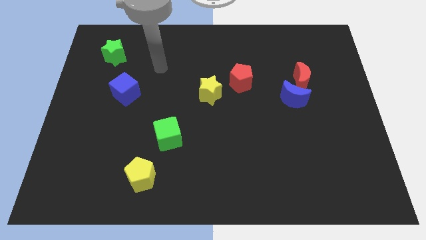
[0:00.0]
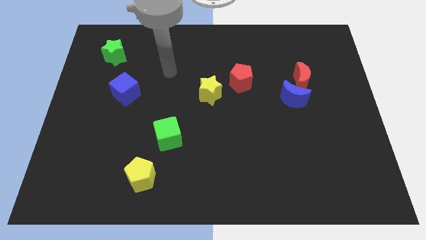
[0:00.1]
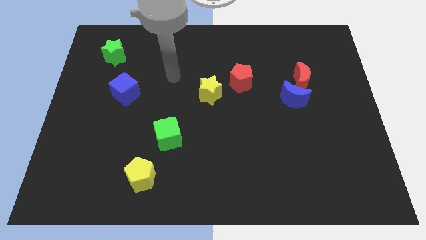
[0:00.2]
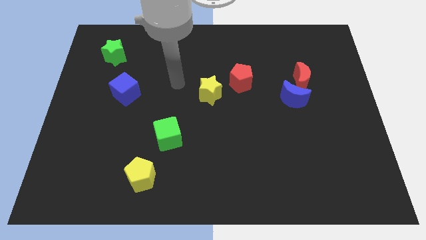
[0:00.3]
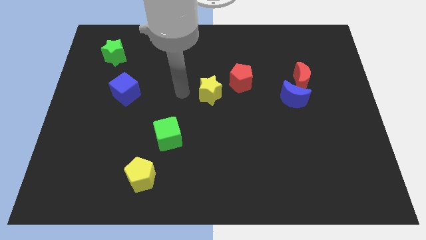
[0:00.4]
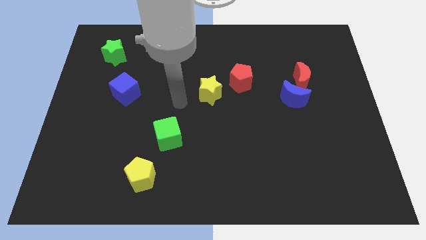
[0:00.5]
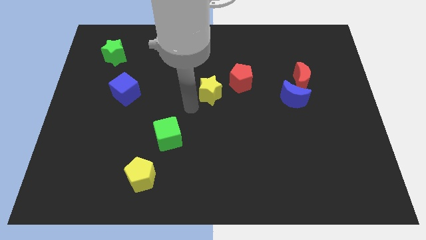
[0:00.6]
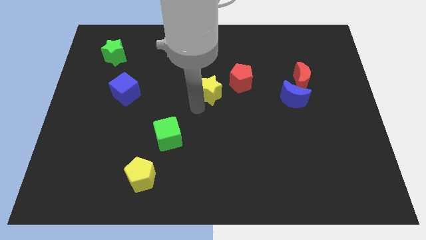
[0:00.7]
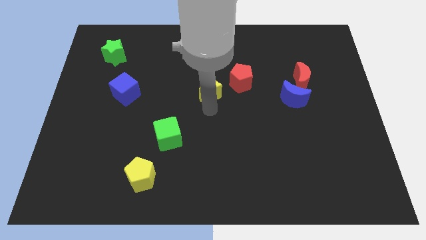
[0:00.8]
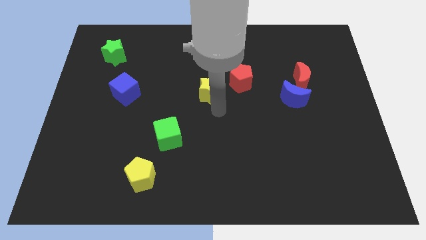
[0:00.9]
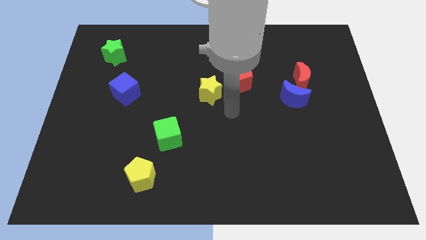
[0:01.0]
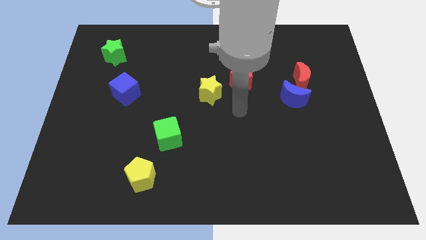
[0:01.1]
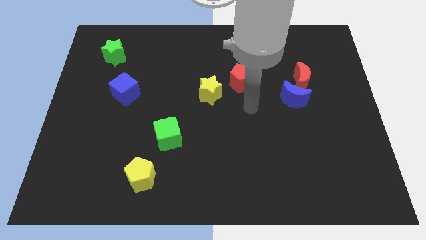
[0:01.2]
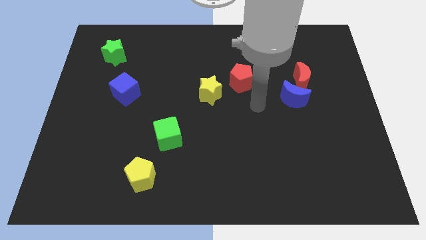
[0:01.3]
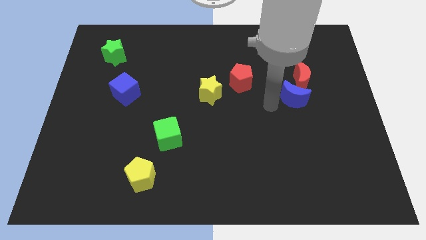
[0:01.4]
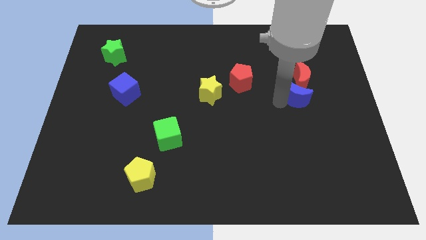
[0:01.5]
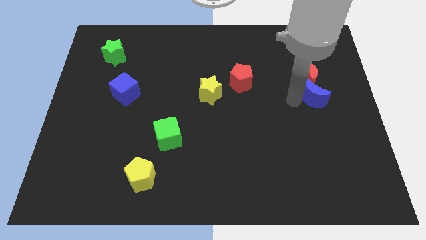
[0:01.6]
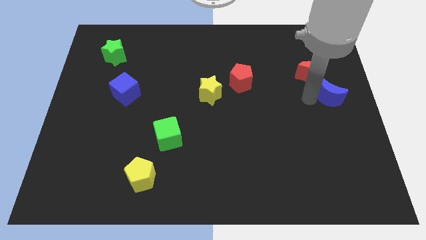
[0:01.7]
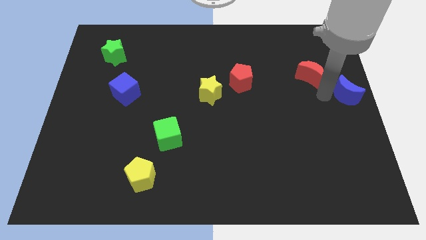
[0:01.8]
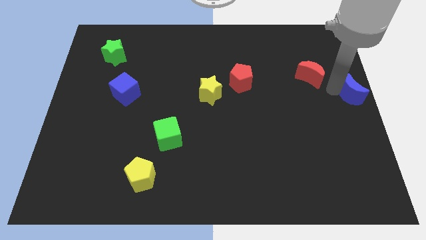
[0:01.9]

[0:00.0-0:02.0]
pull the red moon apart from the blue moon

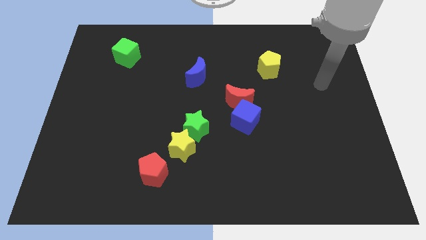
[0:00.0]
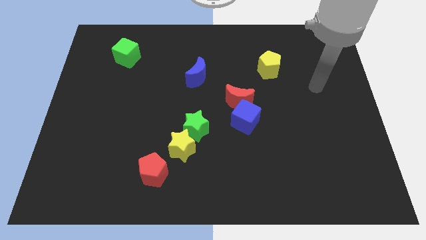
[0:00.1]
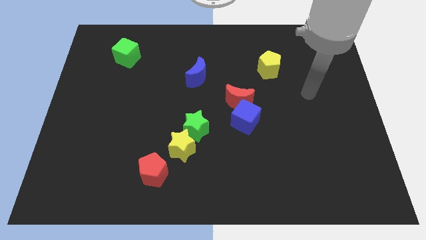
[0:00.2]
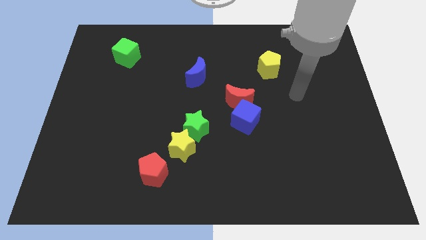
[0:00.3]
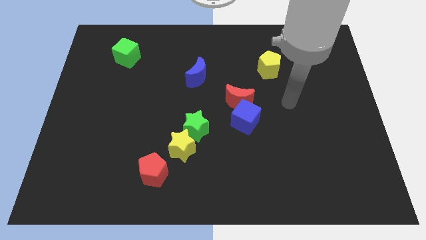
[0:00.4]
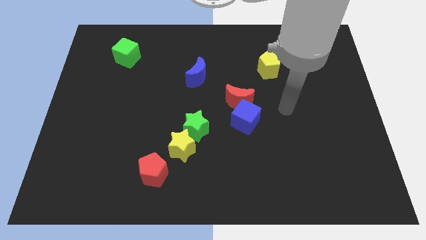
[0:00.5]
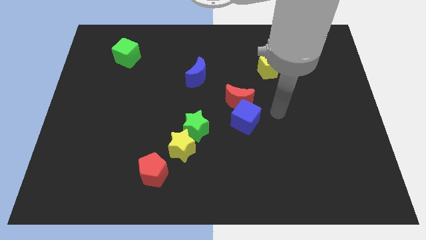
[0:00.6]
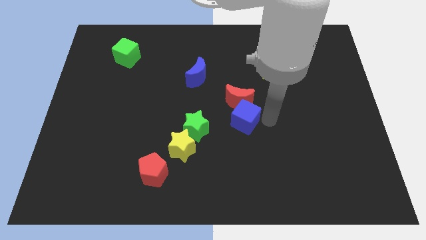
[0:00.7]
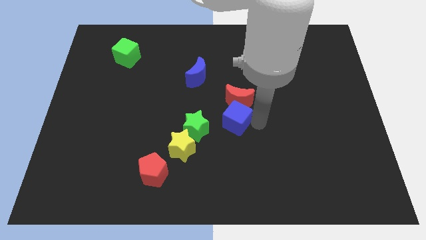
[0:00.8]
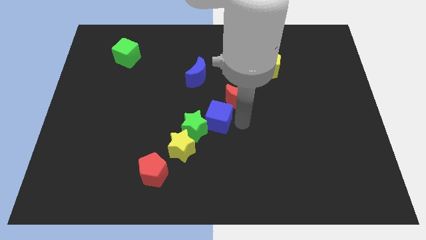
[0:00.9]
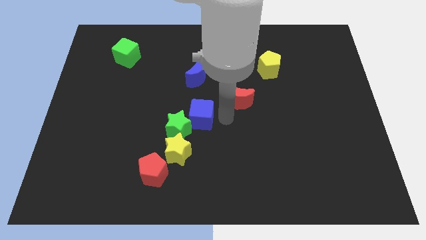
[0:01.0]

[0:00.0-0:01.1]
move the red moon away from the blue cube

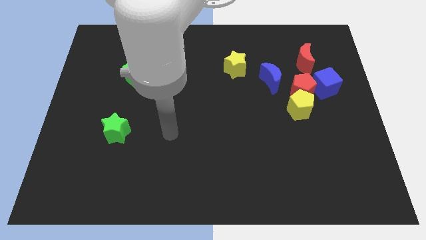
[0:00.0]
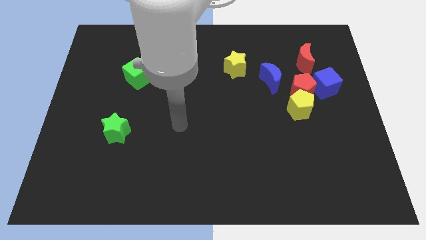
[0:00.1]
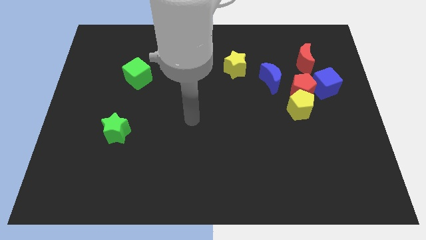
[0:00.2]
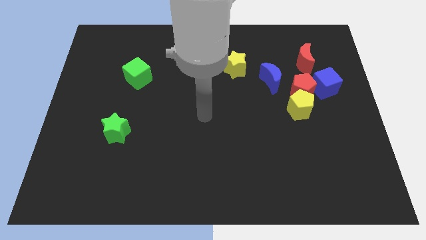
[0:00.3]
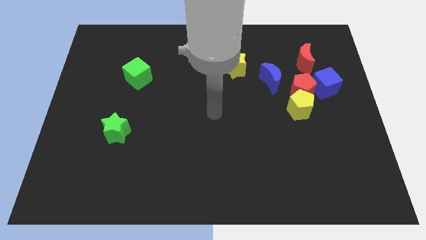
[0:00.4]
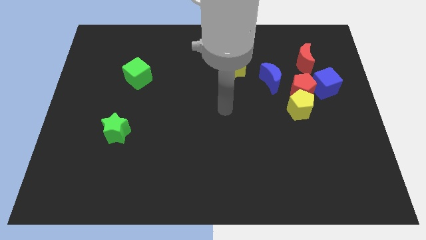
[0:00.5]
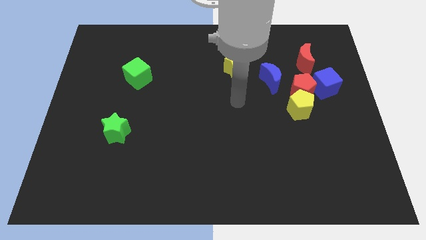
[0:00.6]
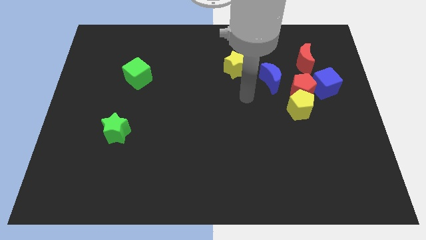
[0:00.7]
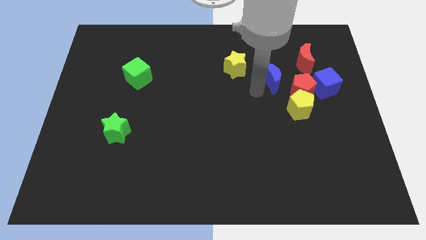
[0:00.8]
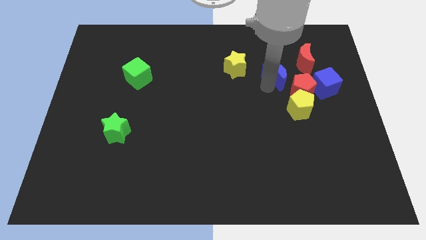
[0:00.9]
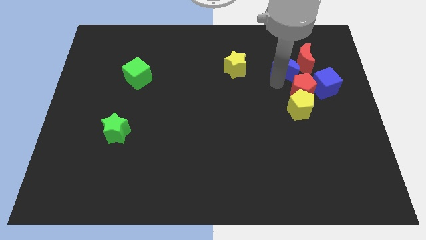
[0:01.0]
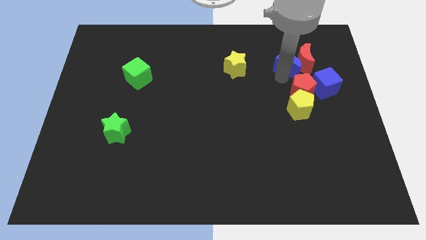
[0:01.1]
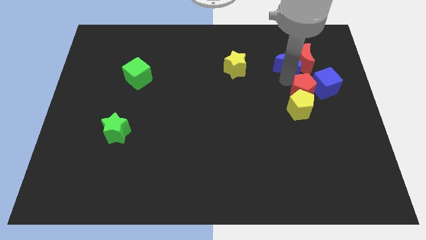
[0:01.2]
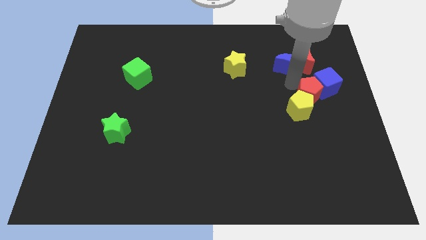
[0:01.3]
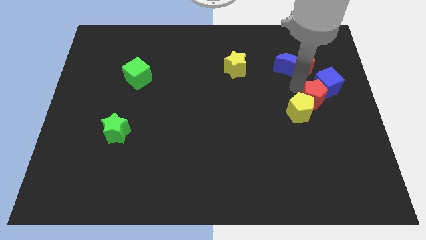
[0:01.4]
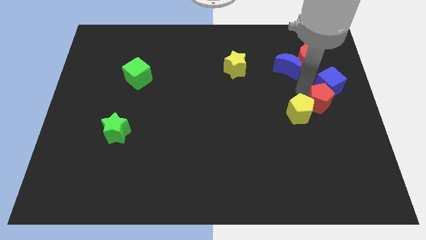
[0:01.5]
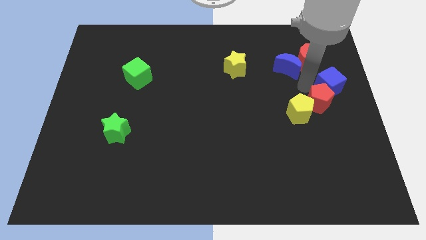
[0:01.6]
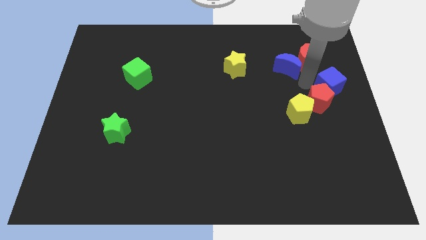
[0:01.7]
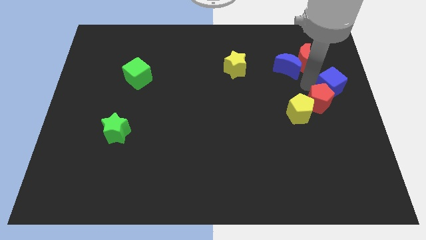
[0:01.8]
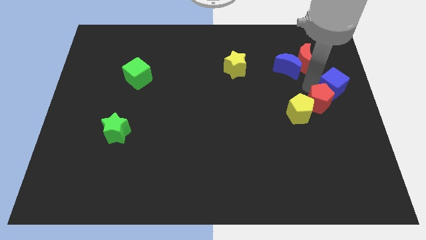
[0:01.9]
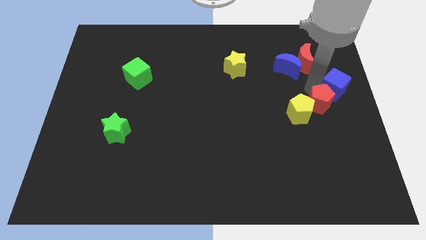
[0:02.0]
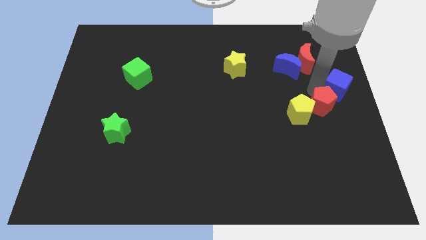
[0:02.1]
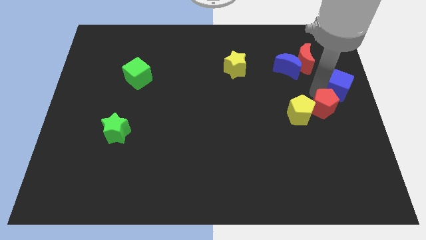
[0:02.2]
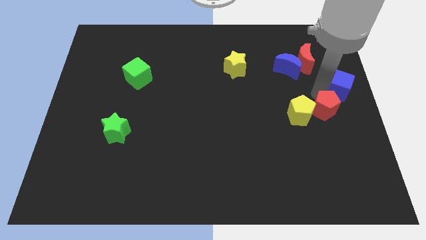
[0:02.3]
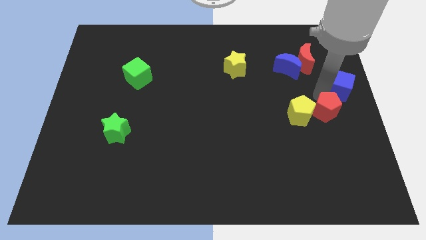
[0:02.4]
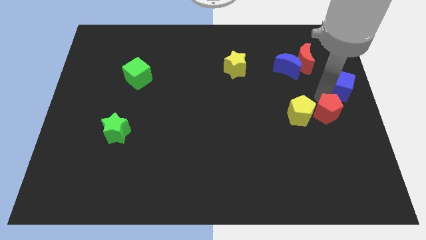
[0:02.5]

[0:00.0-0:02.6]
pull the red pentagon apart from the group of blocks

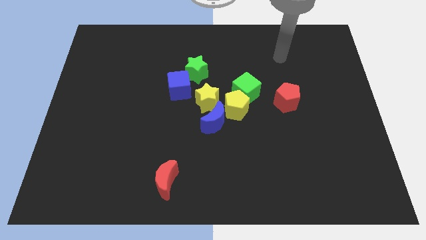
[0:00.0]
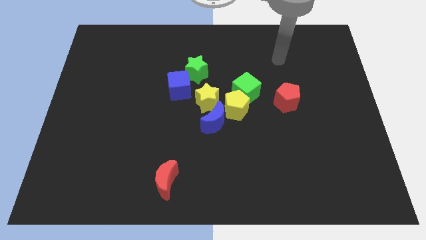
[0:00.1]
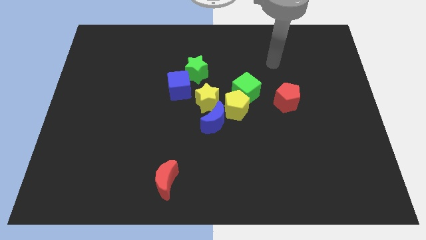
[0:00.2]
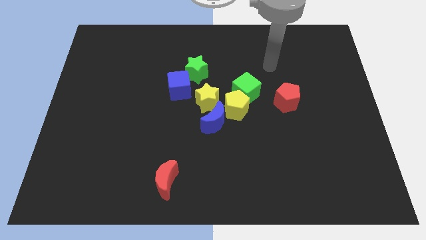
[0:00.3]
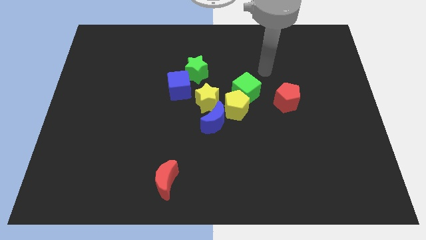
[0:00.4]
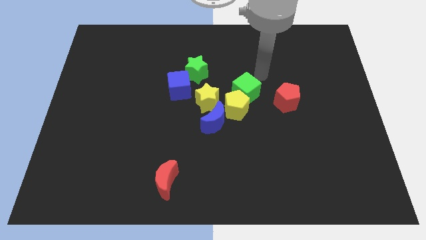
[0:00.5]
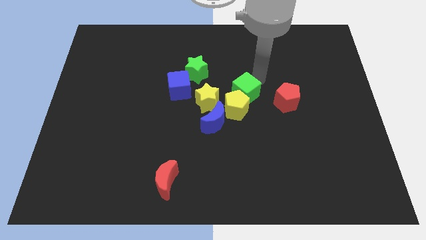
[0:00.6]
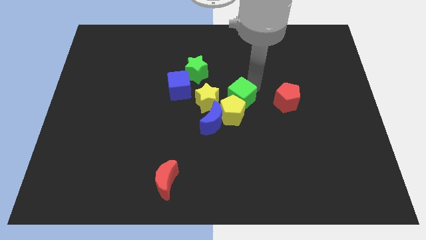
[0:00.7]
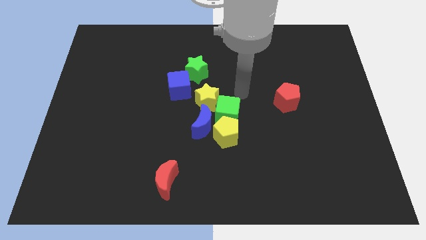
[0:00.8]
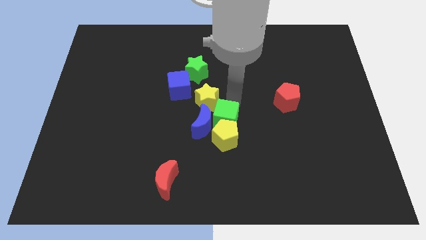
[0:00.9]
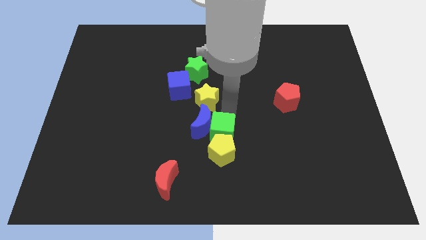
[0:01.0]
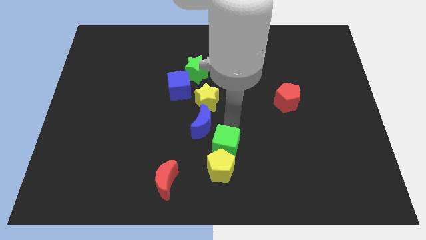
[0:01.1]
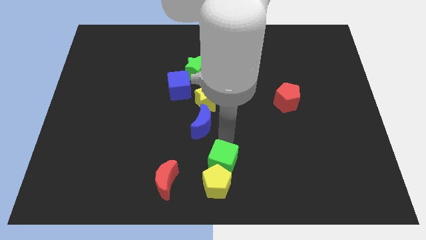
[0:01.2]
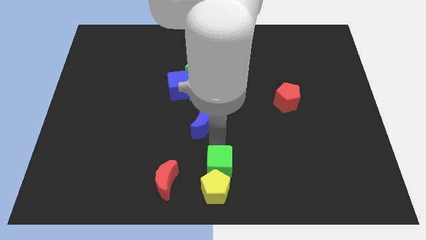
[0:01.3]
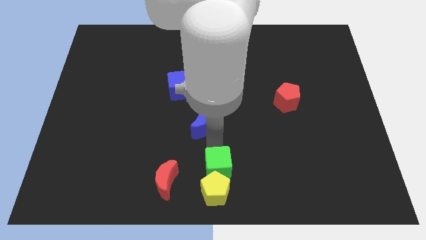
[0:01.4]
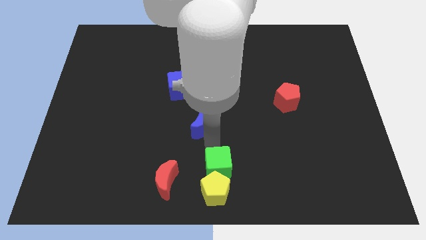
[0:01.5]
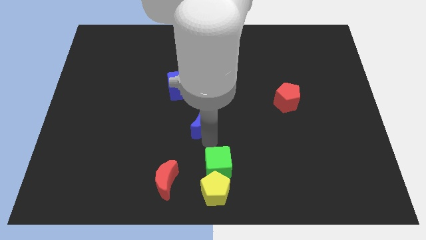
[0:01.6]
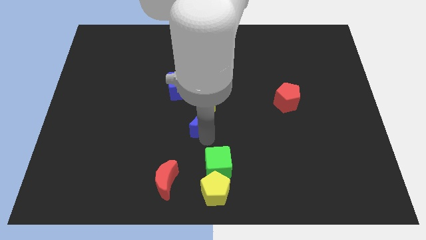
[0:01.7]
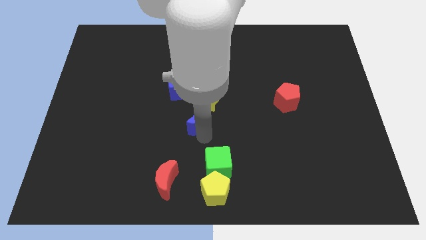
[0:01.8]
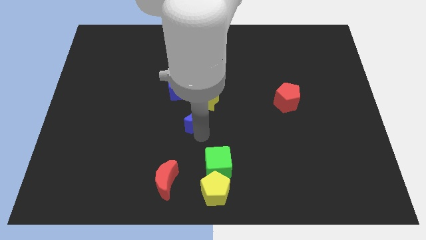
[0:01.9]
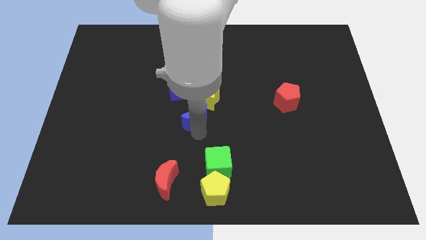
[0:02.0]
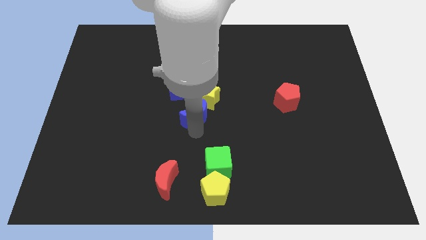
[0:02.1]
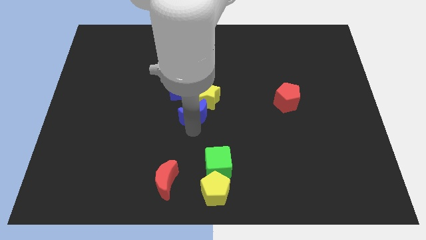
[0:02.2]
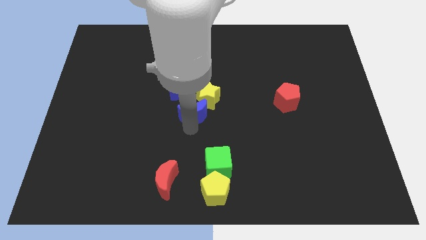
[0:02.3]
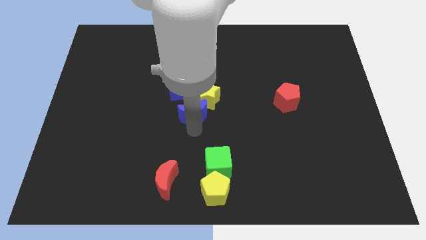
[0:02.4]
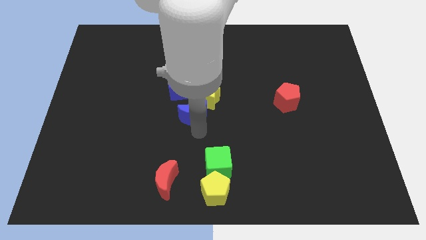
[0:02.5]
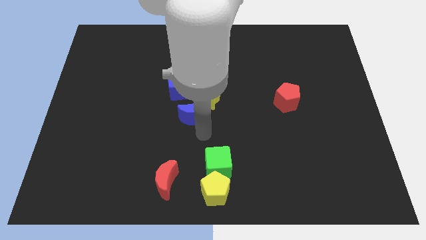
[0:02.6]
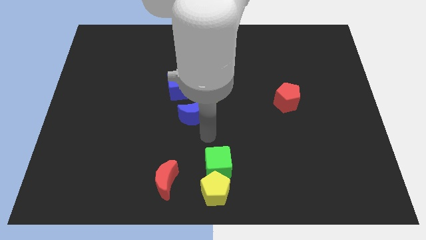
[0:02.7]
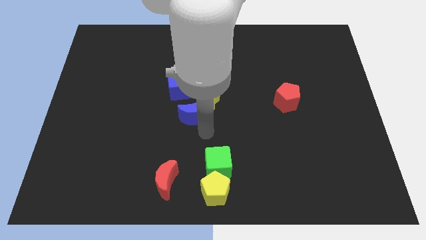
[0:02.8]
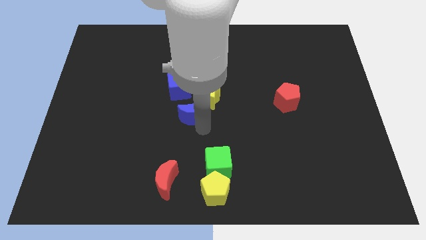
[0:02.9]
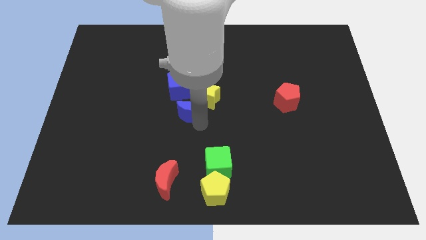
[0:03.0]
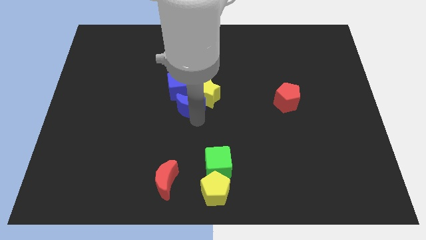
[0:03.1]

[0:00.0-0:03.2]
pull the blue moon apart from the yellow star and yellow pentagon

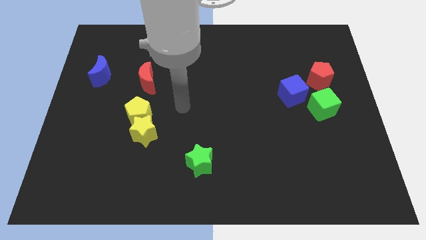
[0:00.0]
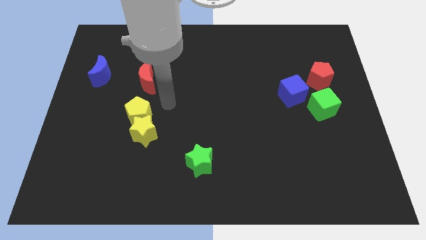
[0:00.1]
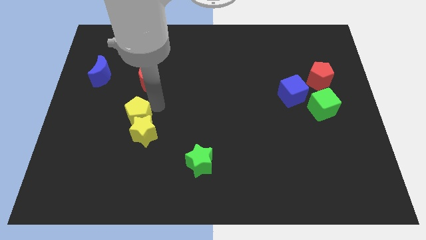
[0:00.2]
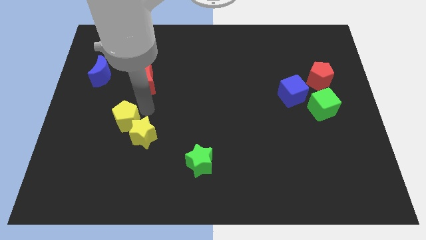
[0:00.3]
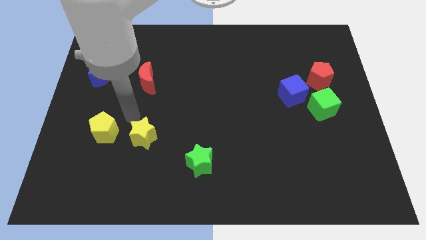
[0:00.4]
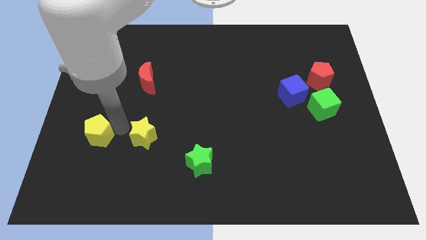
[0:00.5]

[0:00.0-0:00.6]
move the yellow star away from the yellow pentagon
